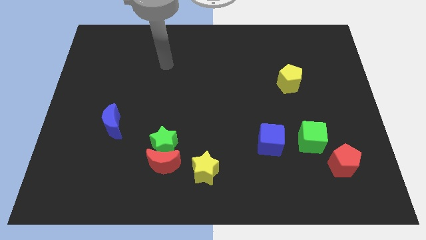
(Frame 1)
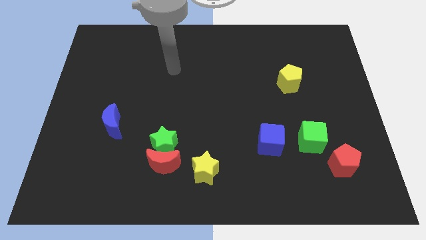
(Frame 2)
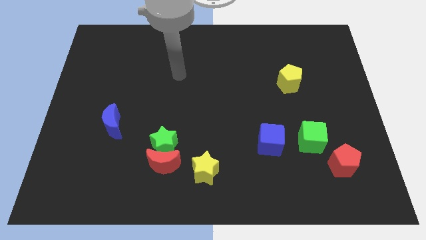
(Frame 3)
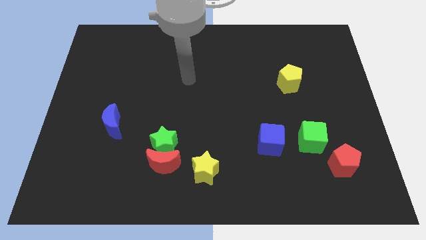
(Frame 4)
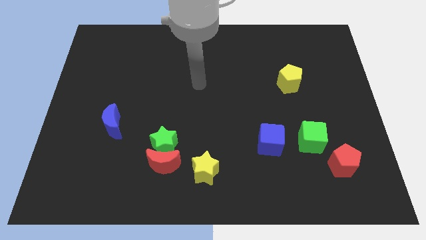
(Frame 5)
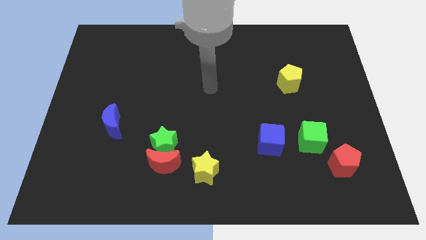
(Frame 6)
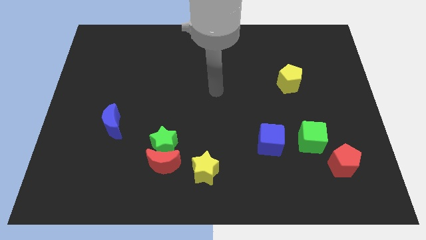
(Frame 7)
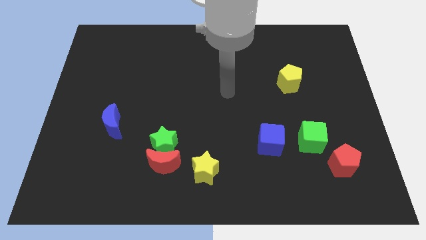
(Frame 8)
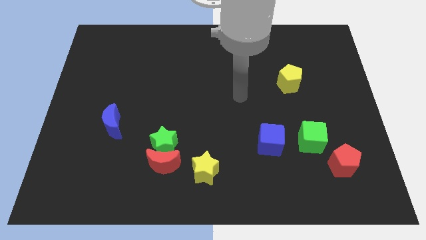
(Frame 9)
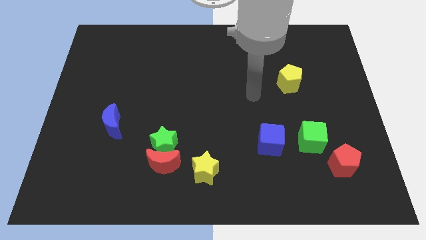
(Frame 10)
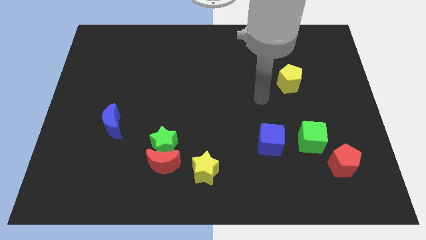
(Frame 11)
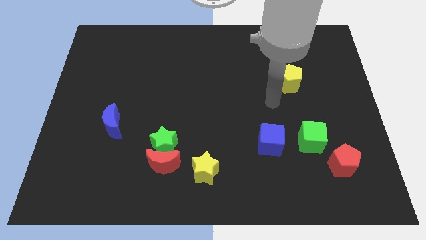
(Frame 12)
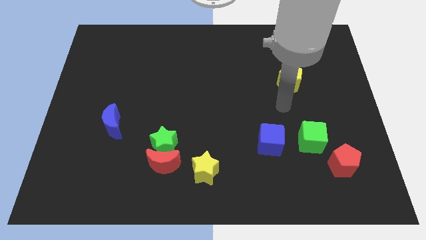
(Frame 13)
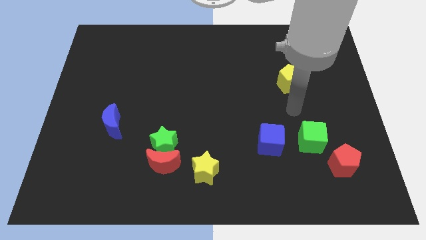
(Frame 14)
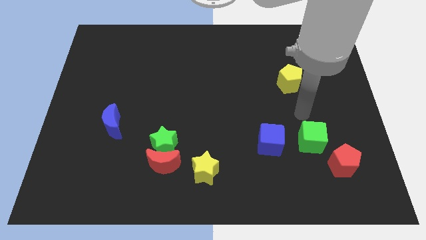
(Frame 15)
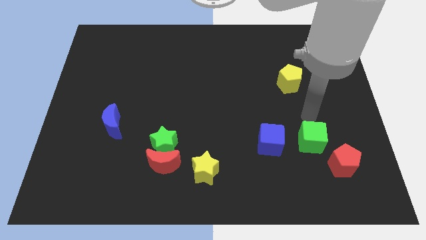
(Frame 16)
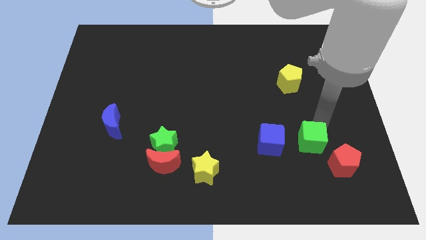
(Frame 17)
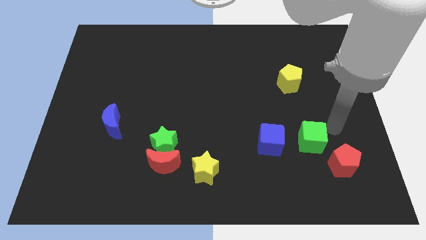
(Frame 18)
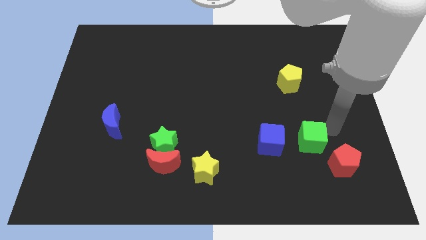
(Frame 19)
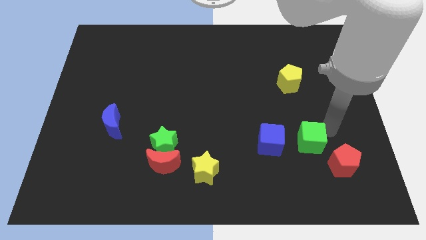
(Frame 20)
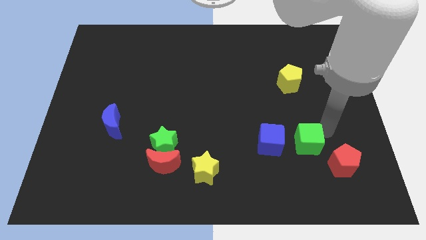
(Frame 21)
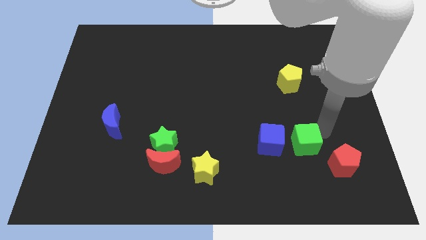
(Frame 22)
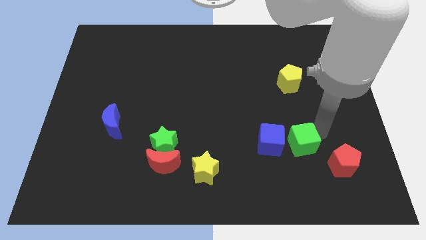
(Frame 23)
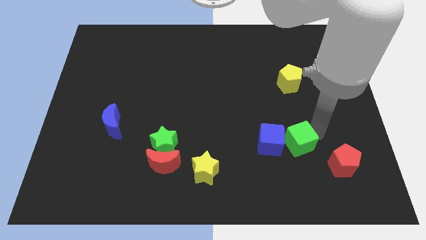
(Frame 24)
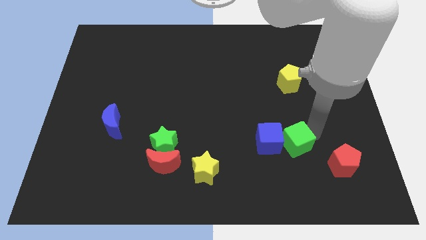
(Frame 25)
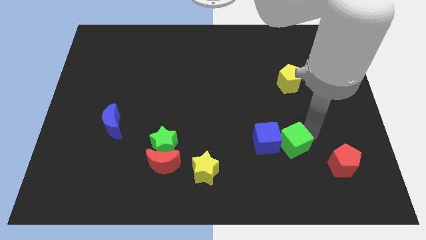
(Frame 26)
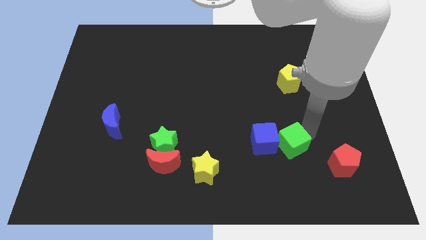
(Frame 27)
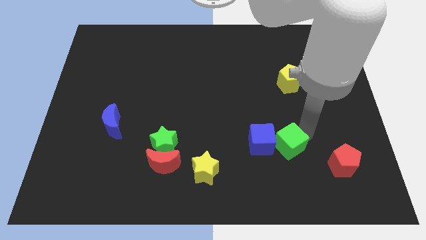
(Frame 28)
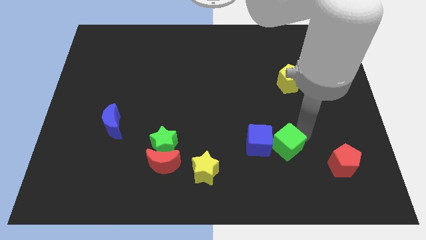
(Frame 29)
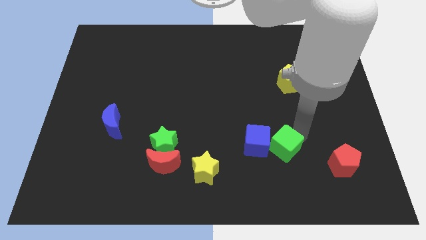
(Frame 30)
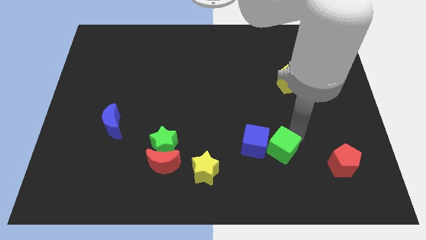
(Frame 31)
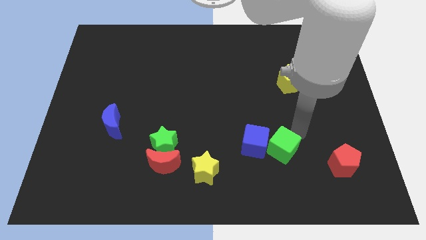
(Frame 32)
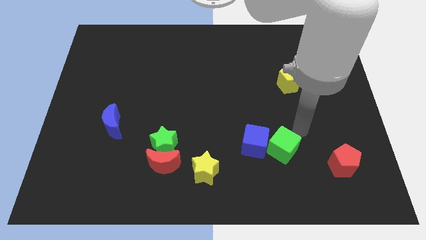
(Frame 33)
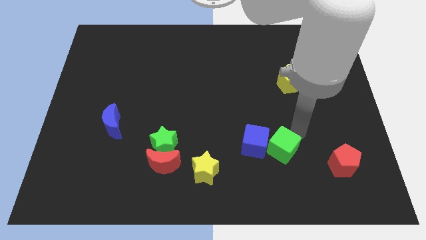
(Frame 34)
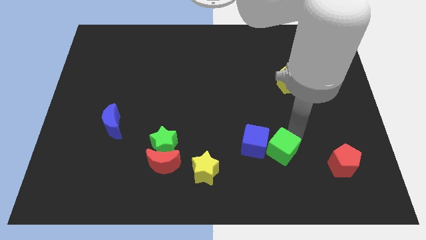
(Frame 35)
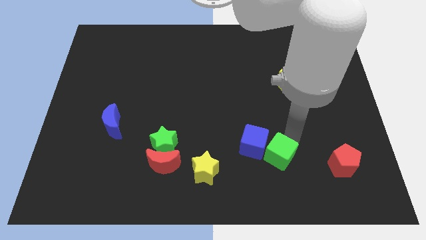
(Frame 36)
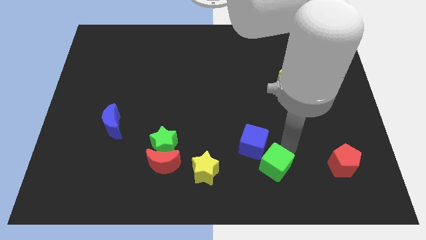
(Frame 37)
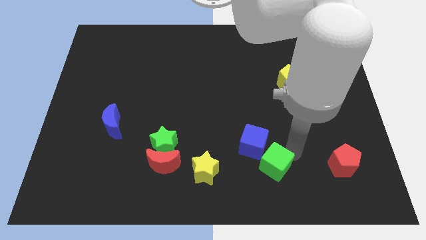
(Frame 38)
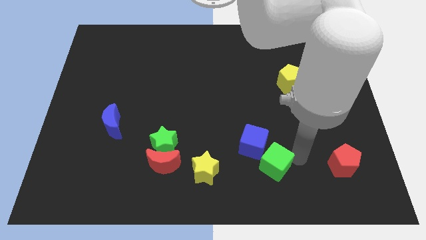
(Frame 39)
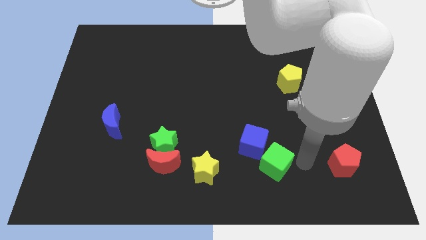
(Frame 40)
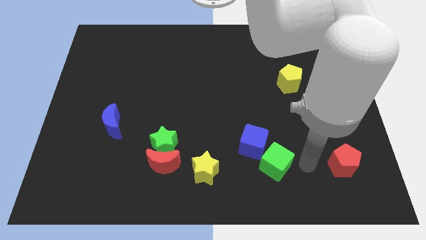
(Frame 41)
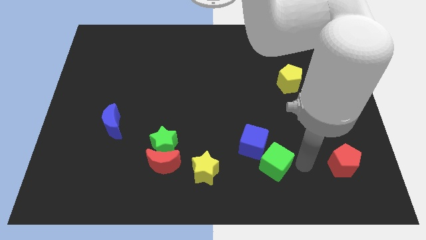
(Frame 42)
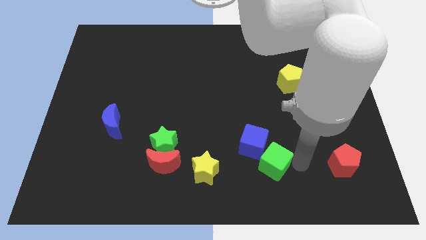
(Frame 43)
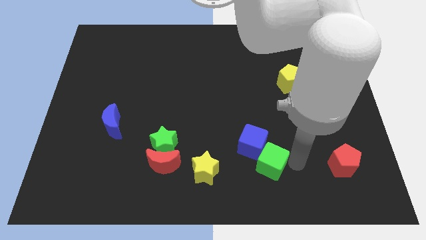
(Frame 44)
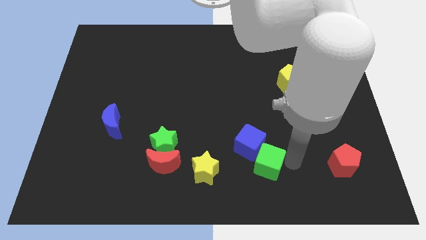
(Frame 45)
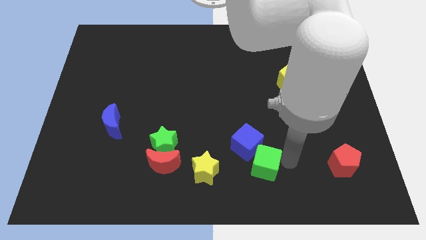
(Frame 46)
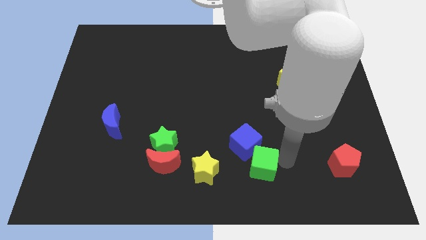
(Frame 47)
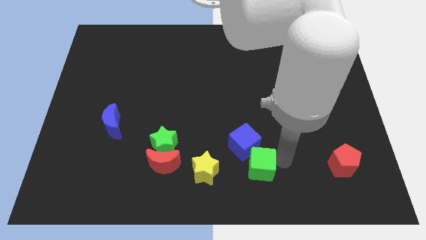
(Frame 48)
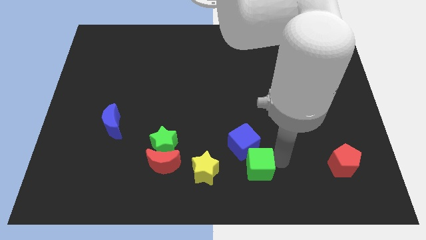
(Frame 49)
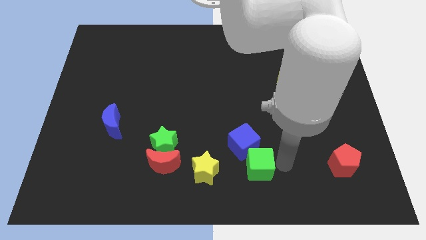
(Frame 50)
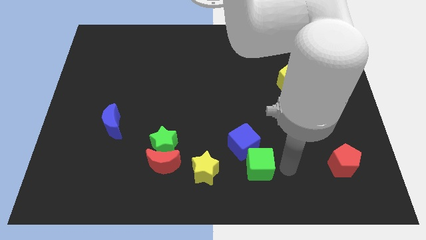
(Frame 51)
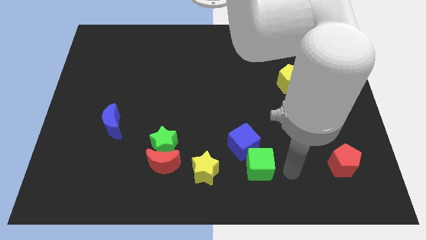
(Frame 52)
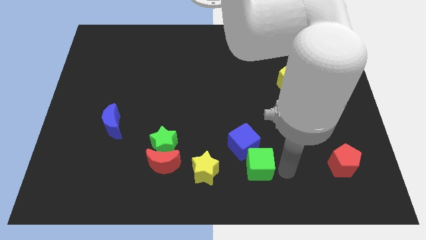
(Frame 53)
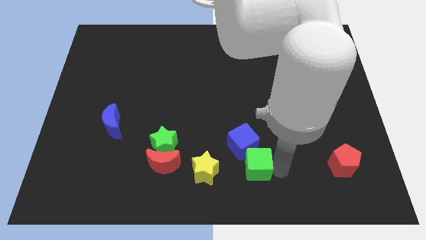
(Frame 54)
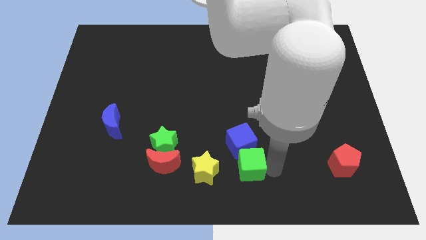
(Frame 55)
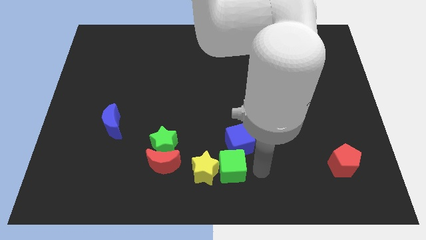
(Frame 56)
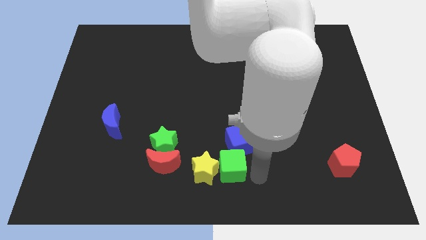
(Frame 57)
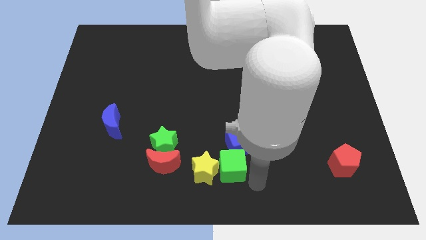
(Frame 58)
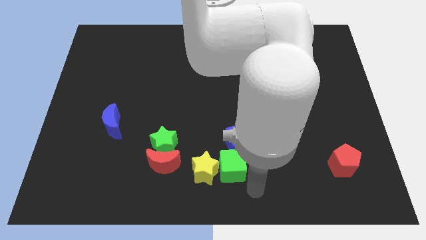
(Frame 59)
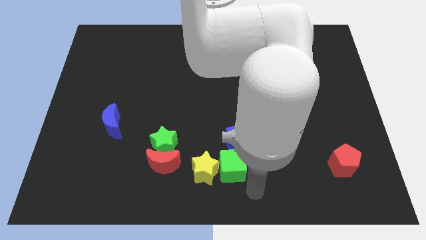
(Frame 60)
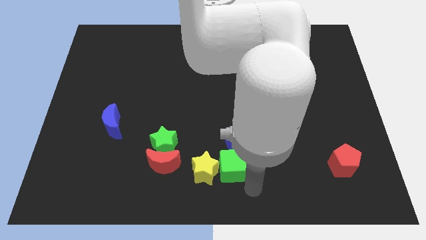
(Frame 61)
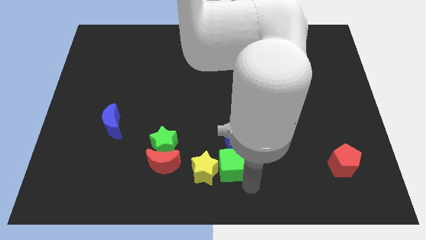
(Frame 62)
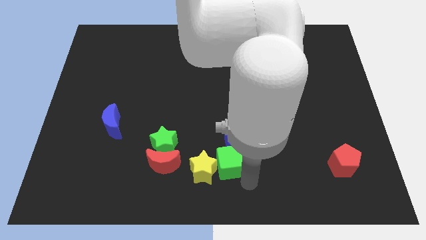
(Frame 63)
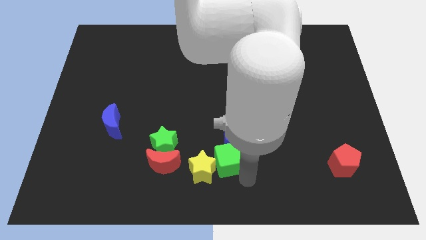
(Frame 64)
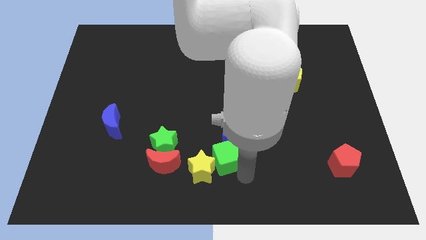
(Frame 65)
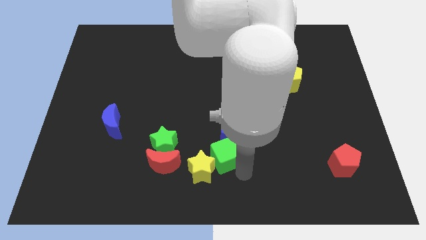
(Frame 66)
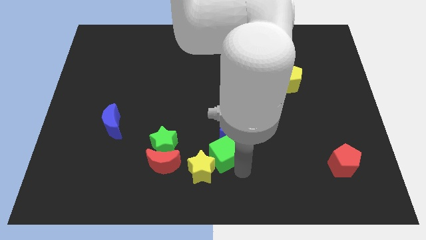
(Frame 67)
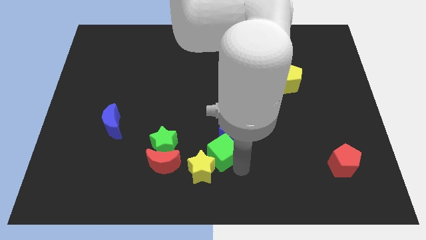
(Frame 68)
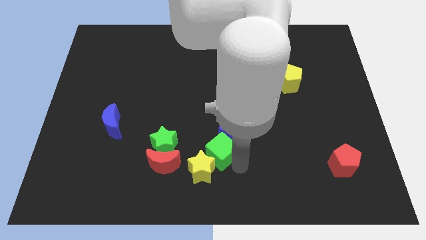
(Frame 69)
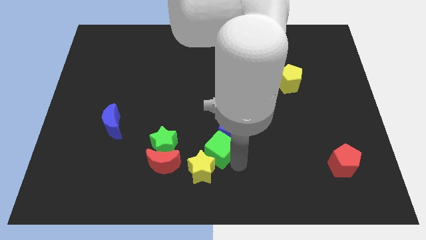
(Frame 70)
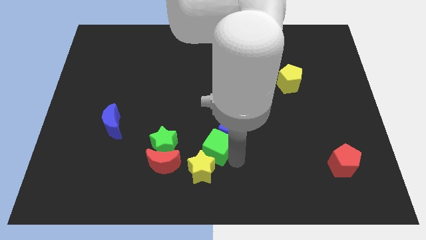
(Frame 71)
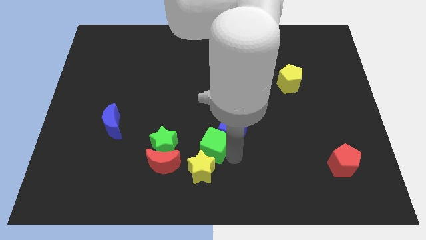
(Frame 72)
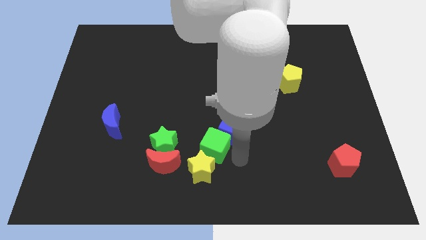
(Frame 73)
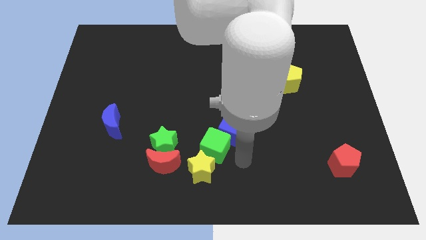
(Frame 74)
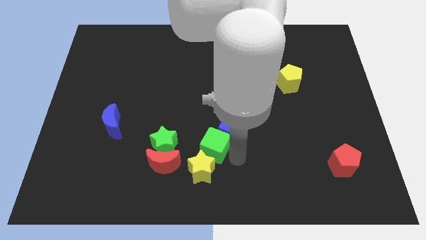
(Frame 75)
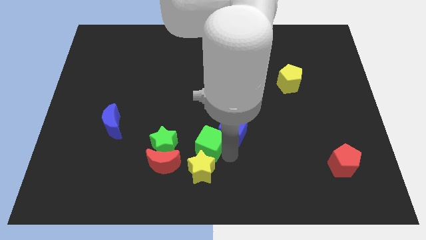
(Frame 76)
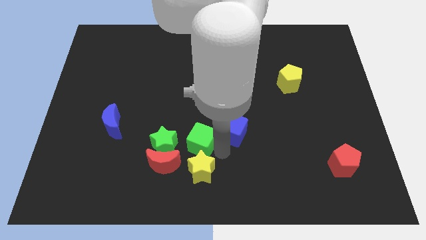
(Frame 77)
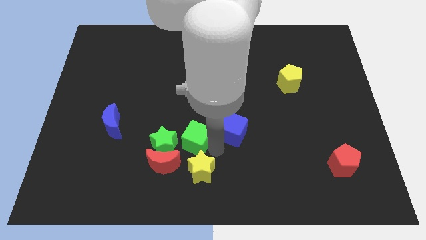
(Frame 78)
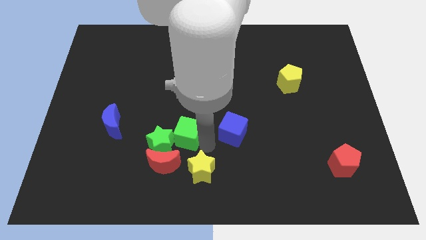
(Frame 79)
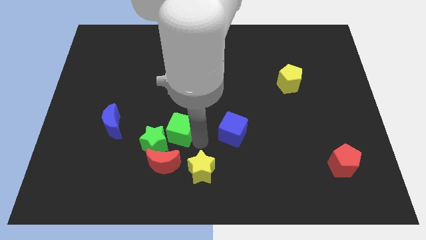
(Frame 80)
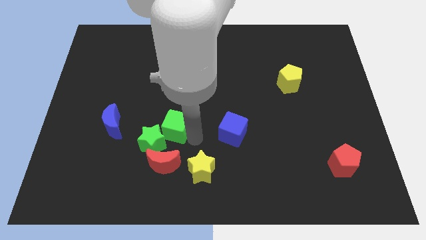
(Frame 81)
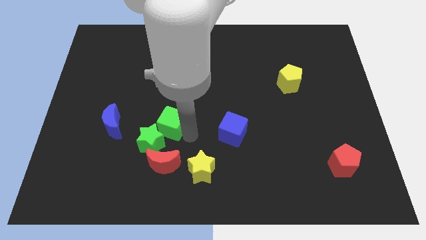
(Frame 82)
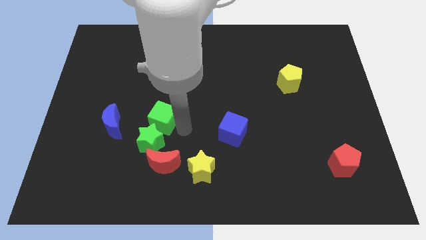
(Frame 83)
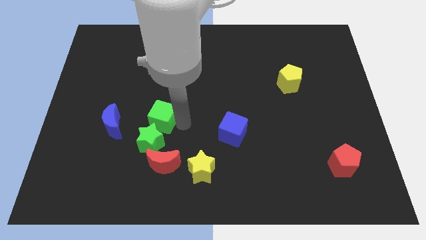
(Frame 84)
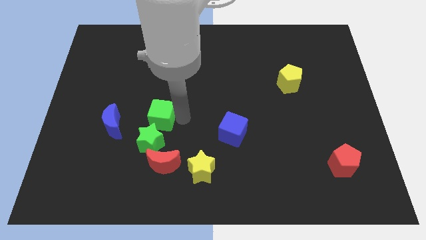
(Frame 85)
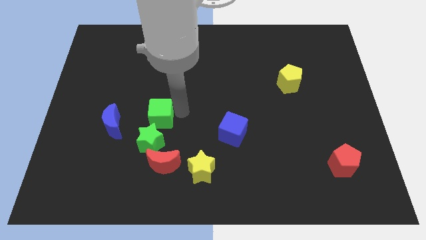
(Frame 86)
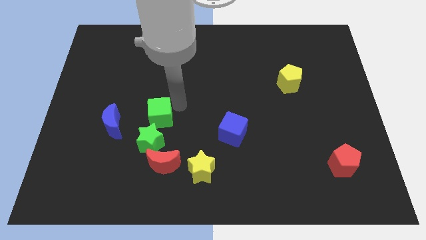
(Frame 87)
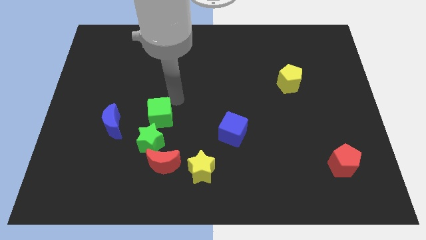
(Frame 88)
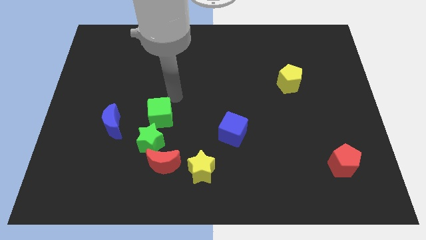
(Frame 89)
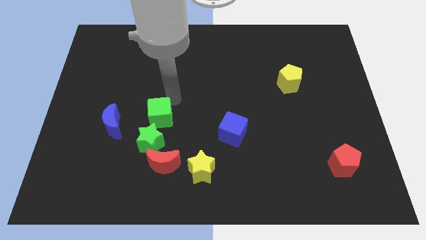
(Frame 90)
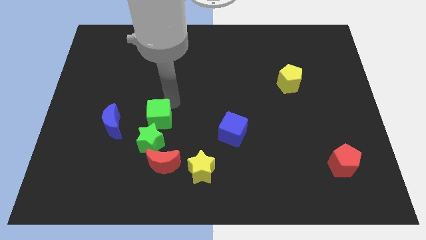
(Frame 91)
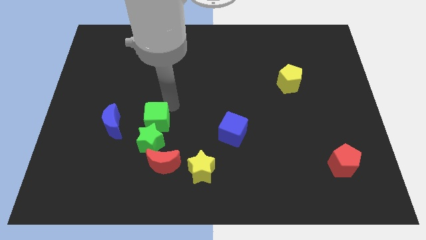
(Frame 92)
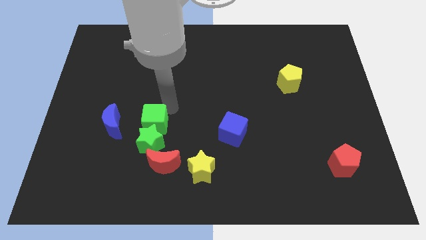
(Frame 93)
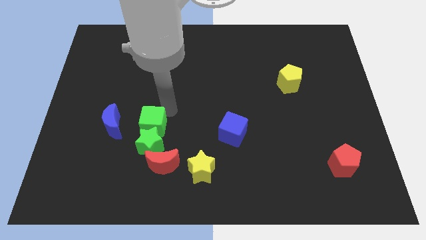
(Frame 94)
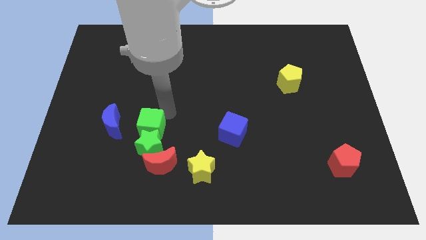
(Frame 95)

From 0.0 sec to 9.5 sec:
move the green cube diagonally up and to the left of the red moon
